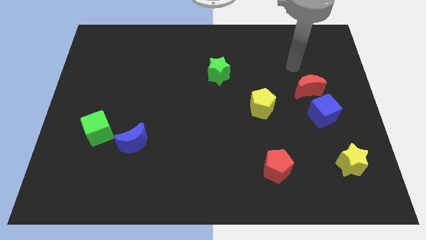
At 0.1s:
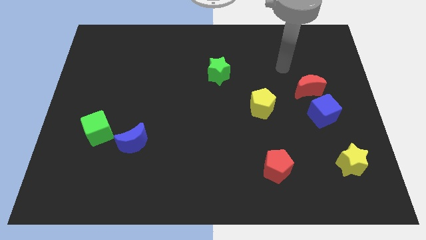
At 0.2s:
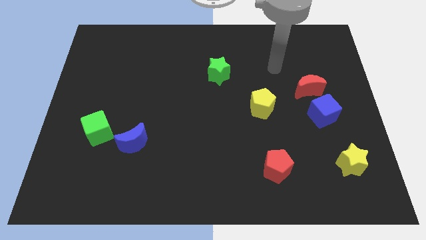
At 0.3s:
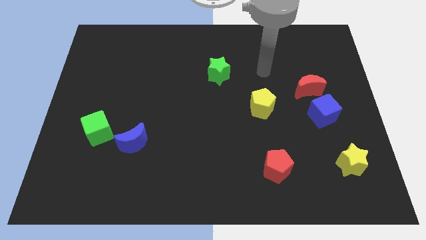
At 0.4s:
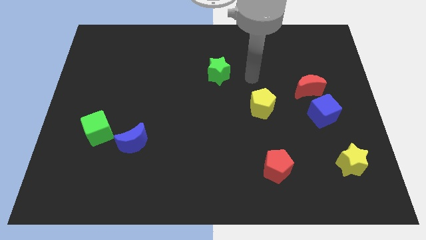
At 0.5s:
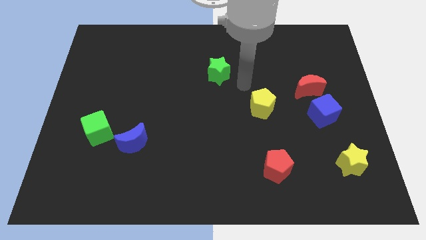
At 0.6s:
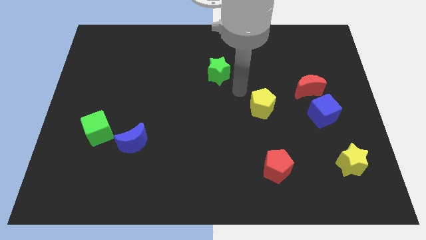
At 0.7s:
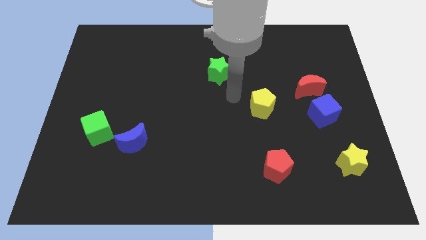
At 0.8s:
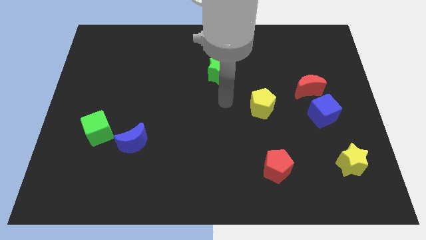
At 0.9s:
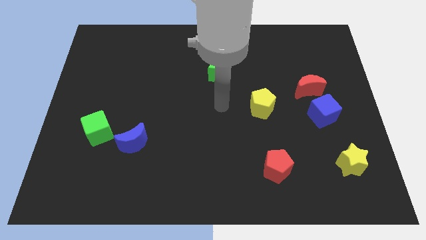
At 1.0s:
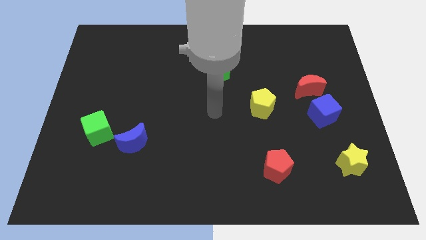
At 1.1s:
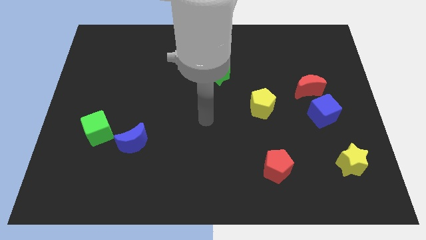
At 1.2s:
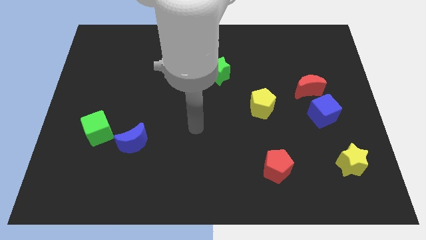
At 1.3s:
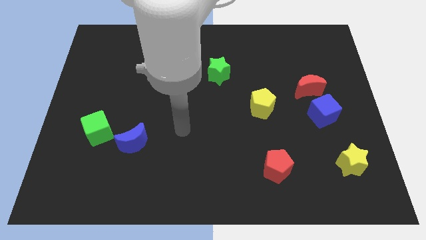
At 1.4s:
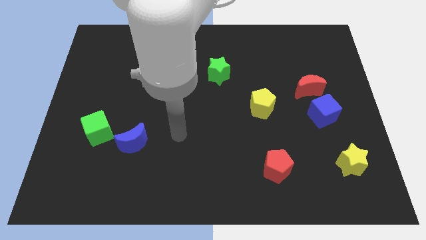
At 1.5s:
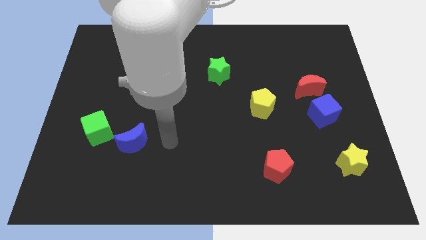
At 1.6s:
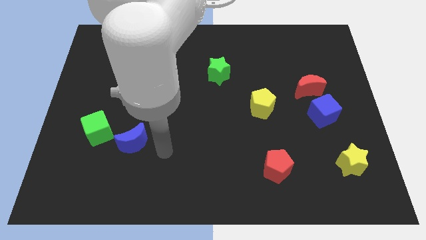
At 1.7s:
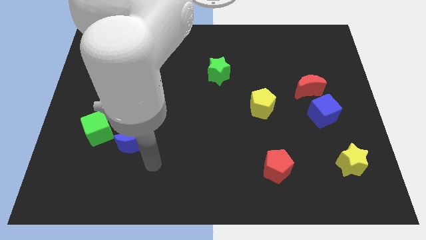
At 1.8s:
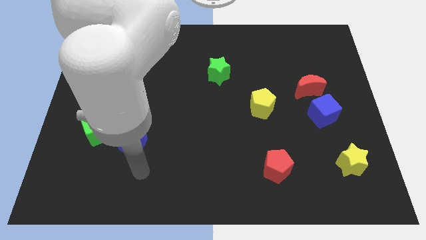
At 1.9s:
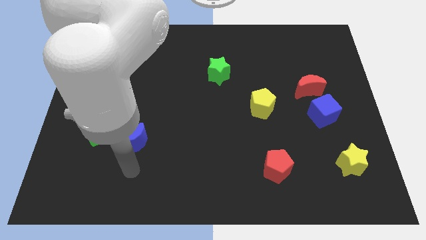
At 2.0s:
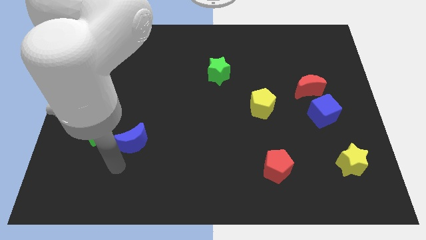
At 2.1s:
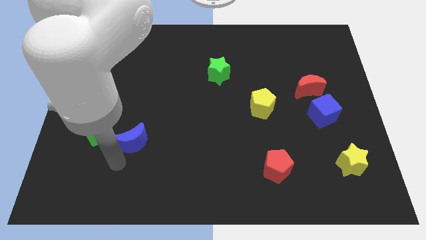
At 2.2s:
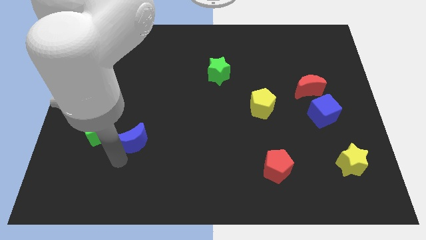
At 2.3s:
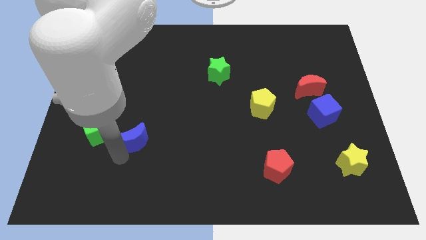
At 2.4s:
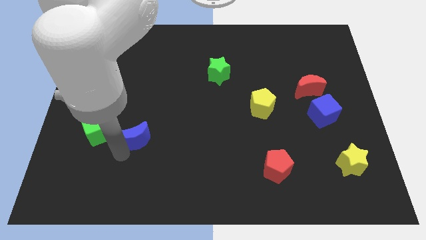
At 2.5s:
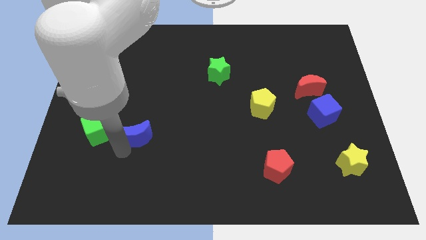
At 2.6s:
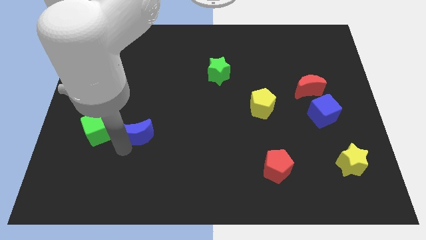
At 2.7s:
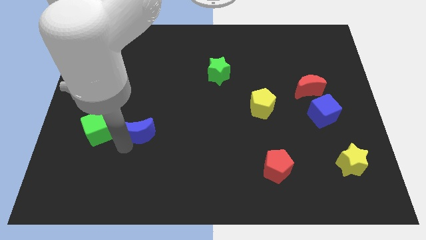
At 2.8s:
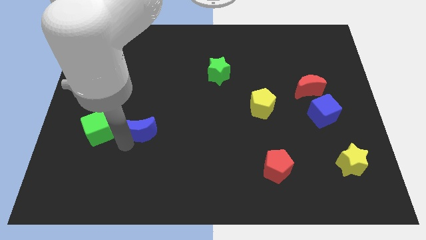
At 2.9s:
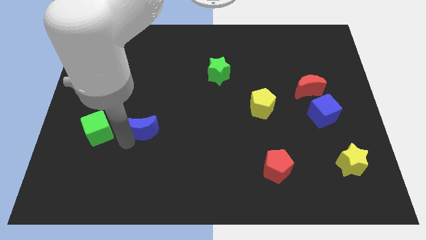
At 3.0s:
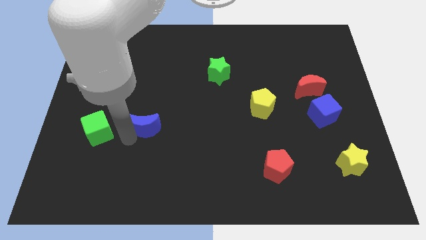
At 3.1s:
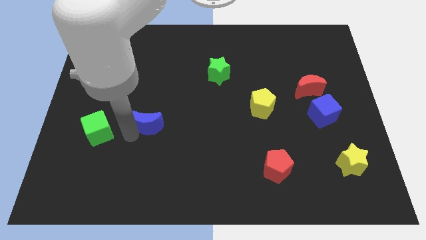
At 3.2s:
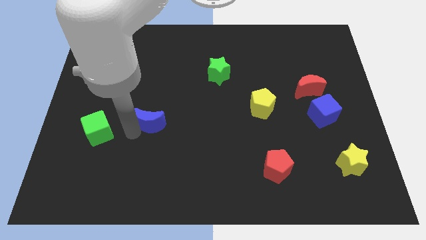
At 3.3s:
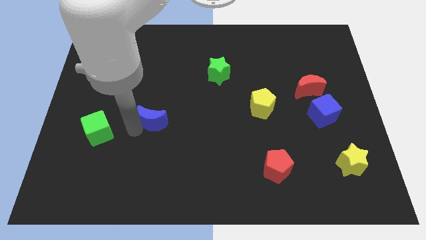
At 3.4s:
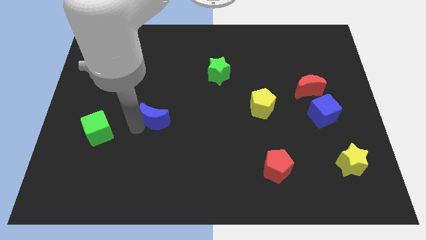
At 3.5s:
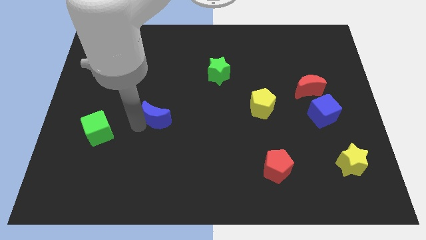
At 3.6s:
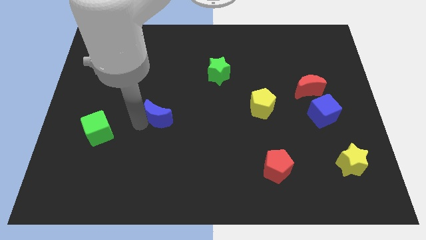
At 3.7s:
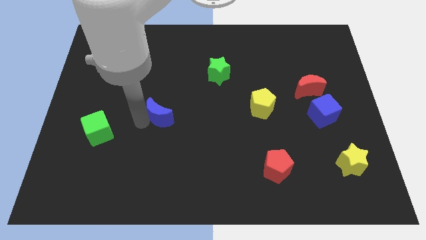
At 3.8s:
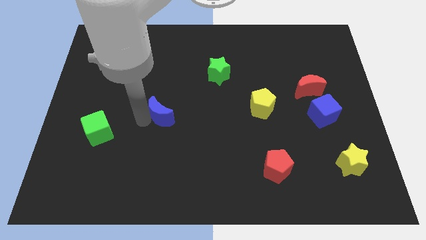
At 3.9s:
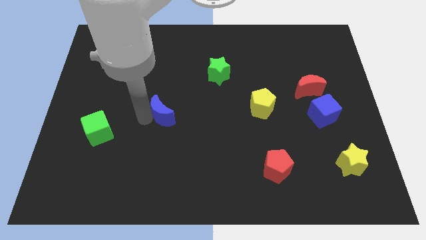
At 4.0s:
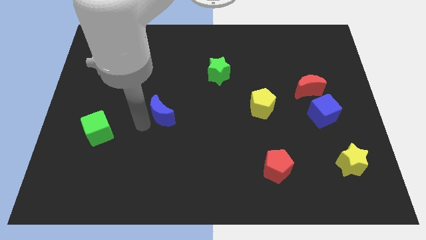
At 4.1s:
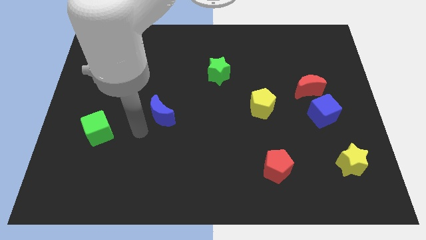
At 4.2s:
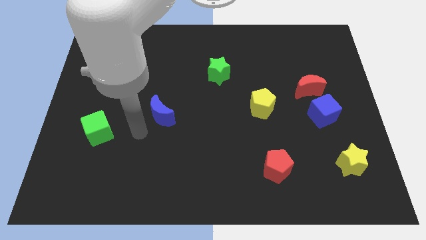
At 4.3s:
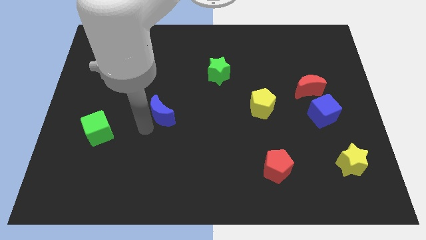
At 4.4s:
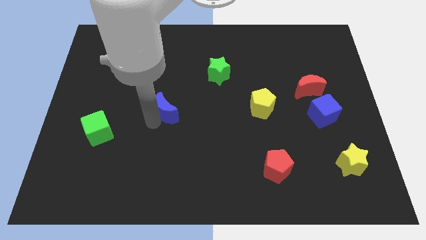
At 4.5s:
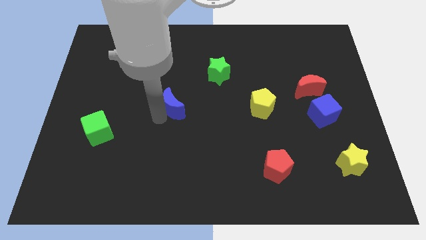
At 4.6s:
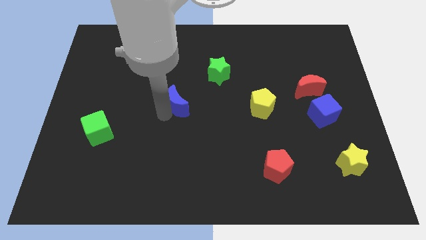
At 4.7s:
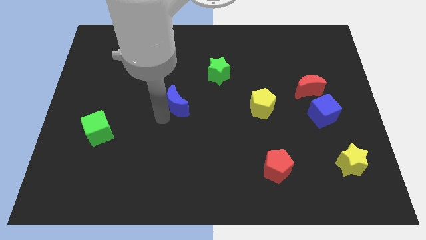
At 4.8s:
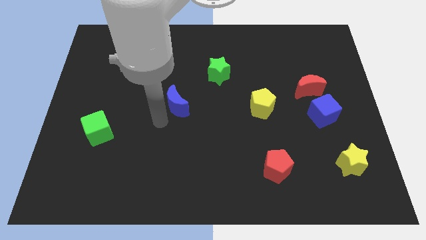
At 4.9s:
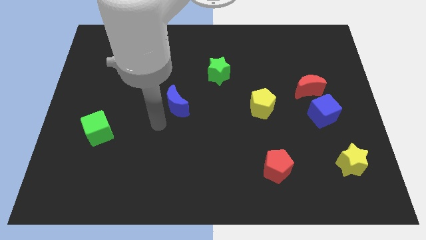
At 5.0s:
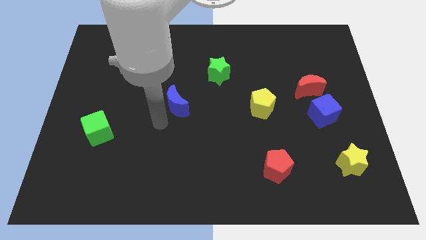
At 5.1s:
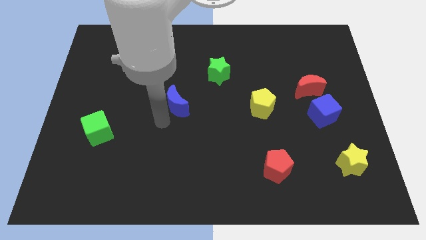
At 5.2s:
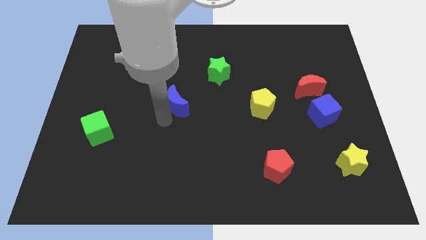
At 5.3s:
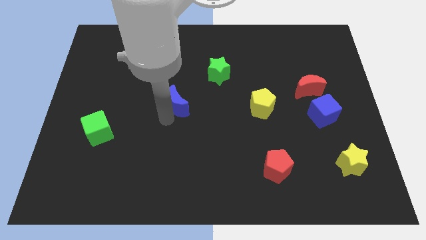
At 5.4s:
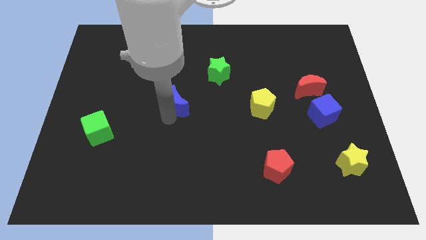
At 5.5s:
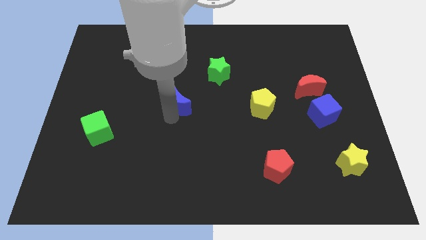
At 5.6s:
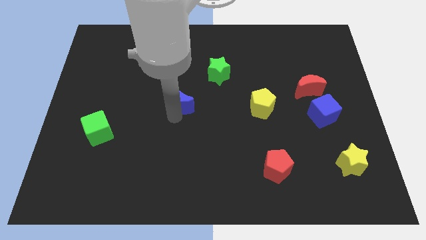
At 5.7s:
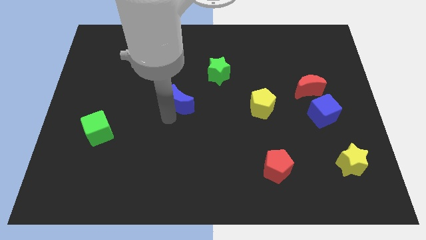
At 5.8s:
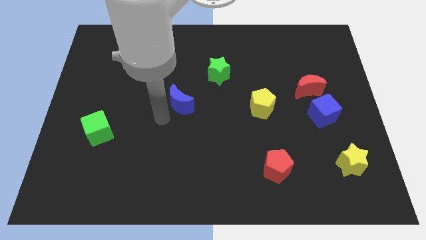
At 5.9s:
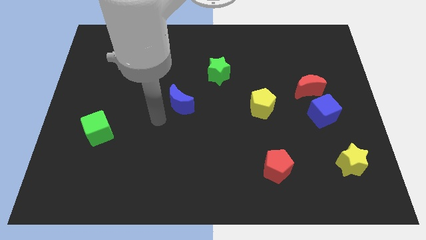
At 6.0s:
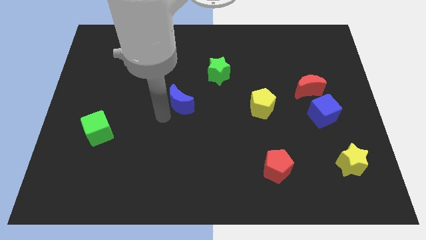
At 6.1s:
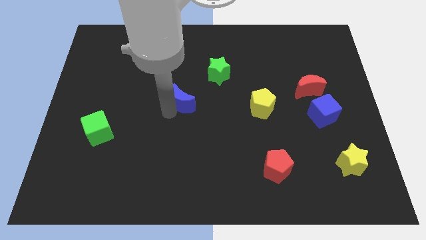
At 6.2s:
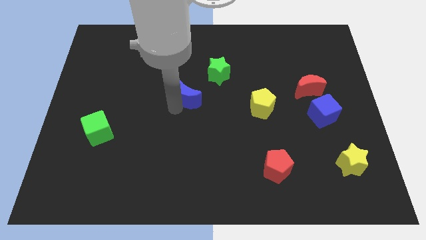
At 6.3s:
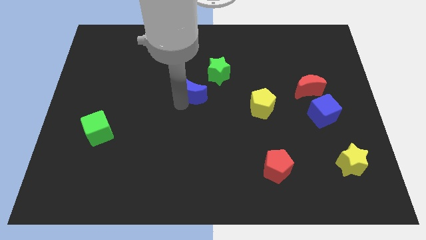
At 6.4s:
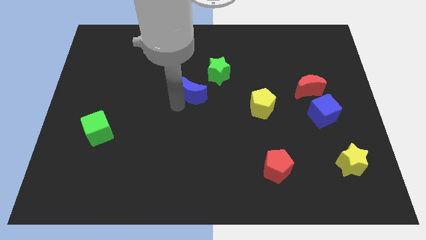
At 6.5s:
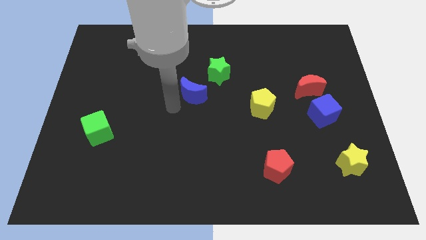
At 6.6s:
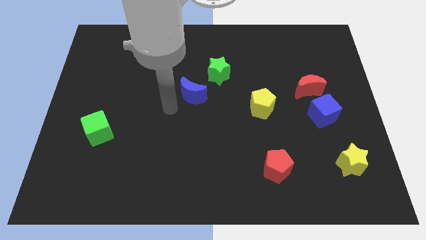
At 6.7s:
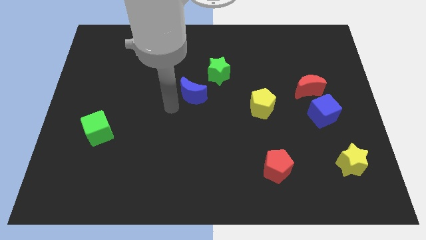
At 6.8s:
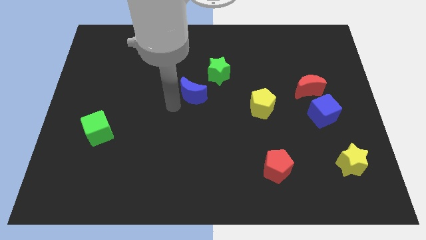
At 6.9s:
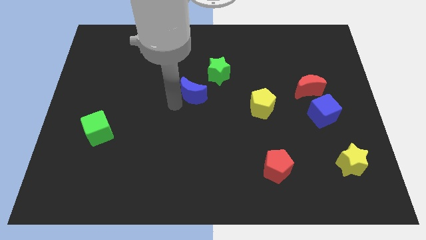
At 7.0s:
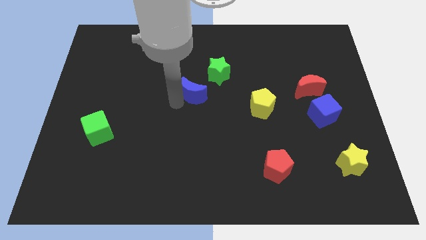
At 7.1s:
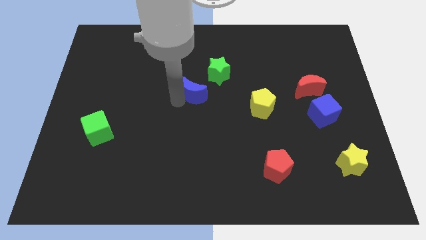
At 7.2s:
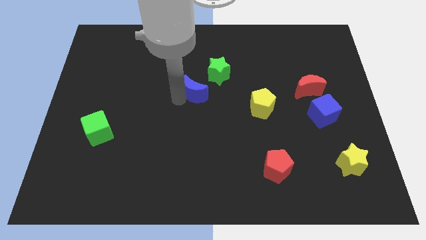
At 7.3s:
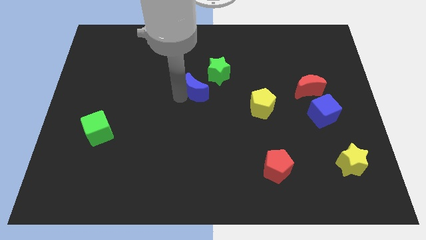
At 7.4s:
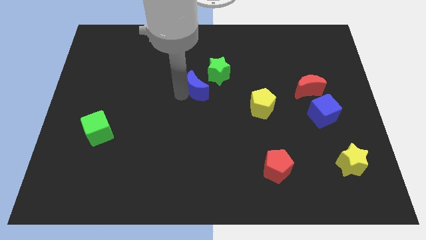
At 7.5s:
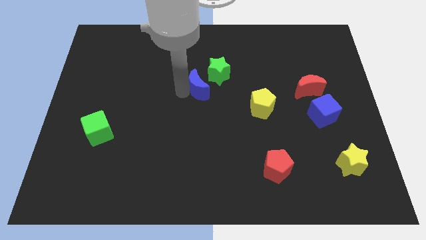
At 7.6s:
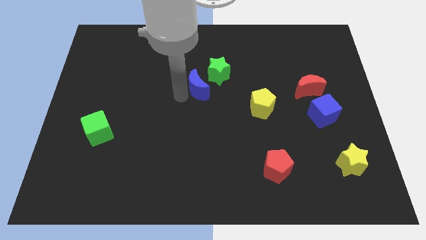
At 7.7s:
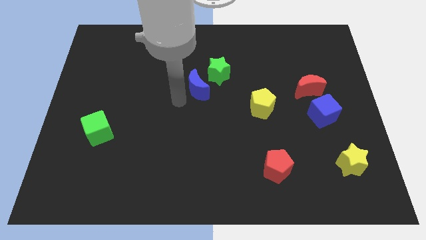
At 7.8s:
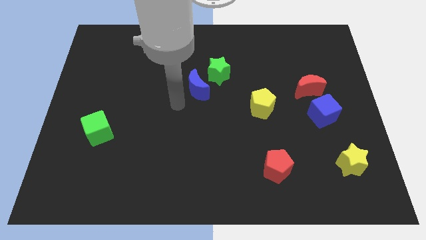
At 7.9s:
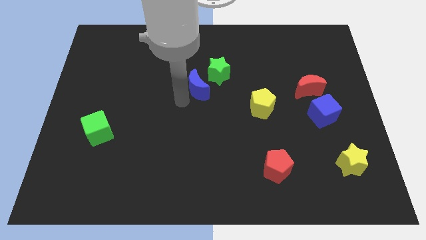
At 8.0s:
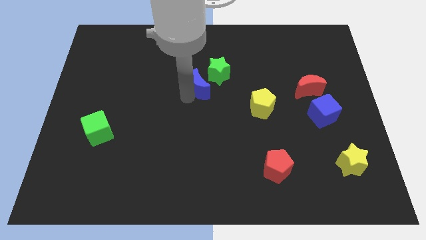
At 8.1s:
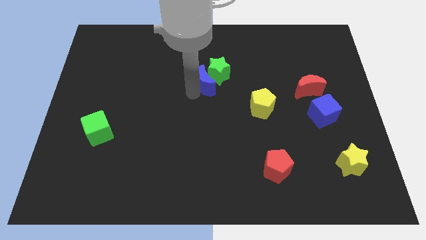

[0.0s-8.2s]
put the blue moon towards the green star

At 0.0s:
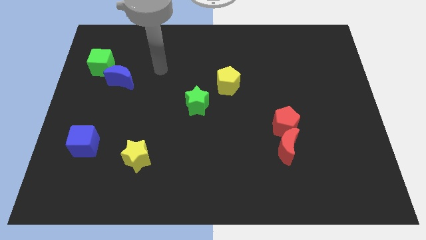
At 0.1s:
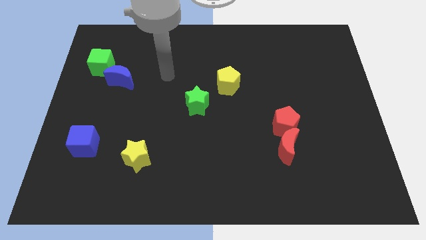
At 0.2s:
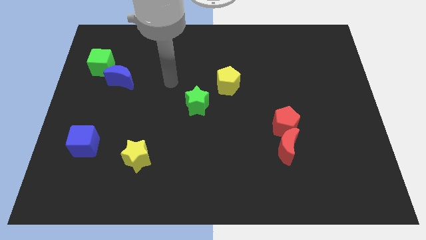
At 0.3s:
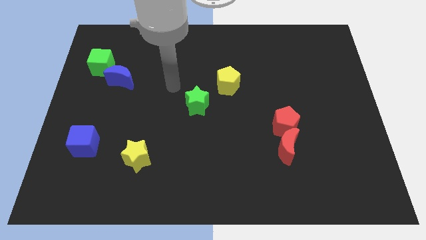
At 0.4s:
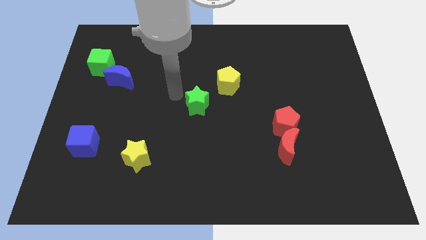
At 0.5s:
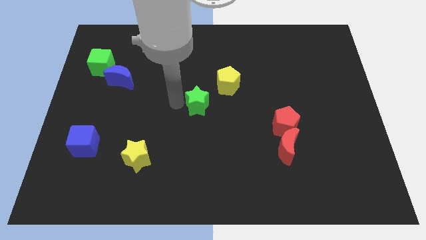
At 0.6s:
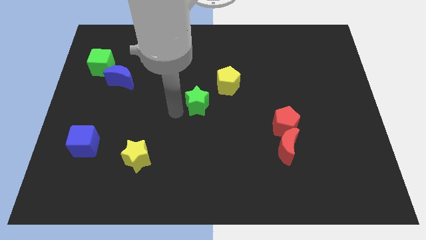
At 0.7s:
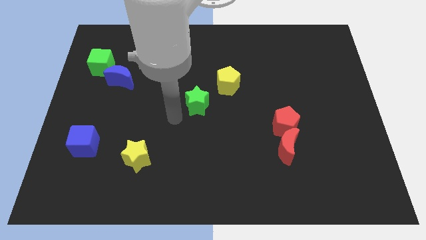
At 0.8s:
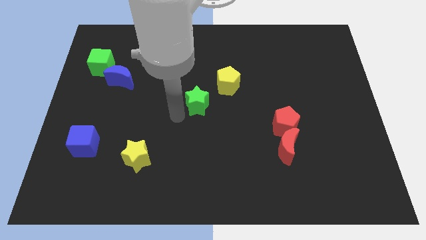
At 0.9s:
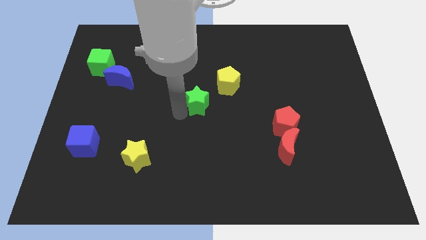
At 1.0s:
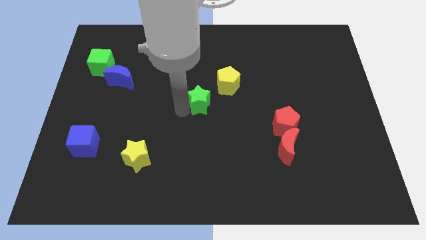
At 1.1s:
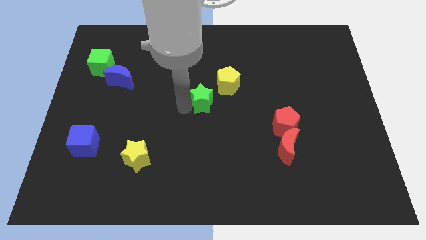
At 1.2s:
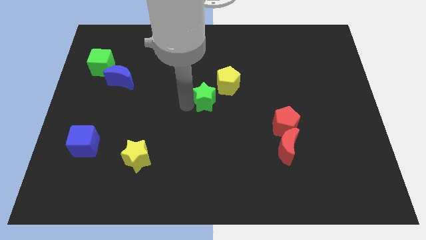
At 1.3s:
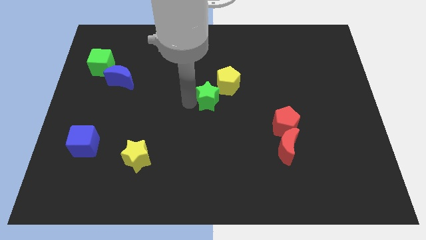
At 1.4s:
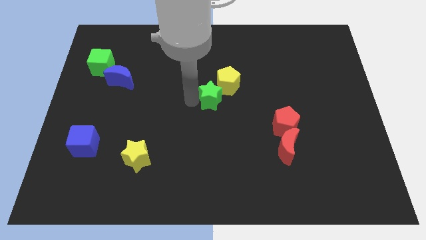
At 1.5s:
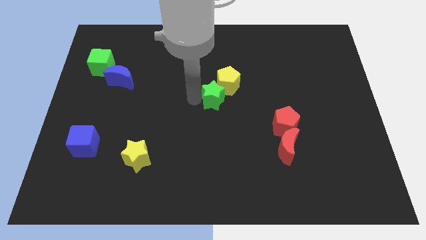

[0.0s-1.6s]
push the green star close to the yellow pentagon
